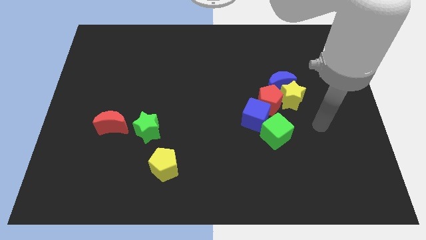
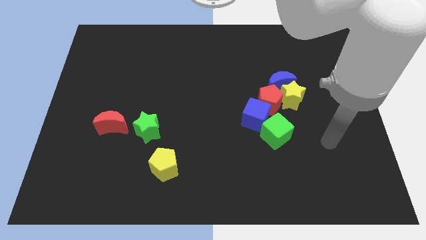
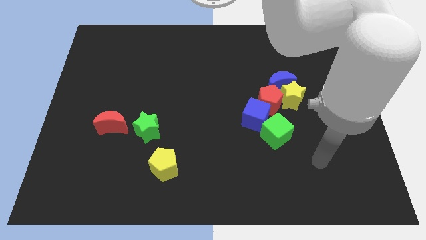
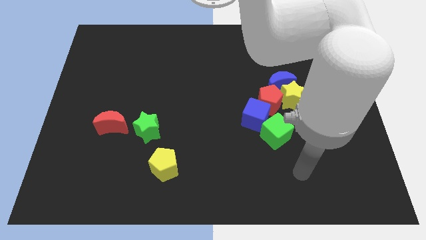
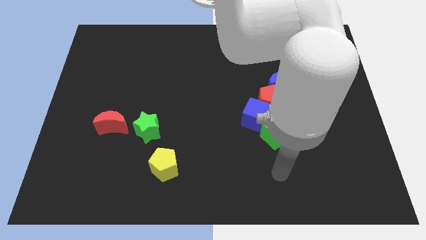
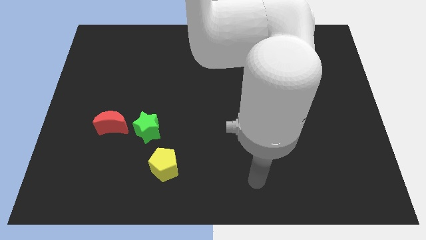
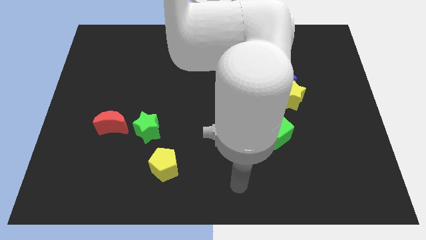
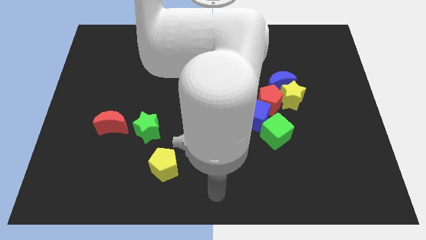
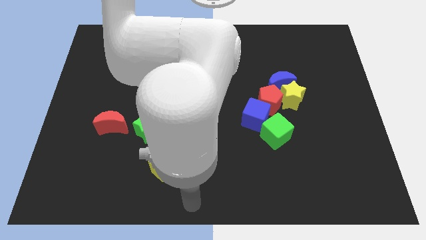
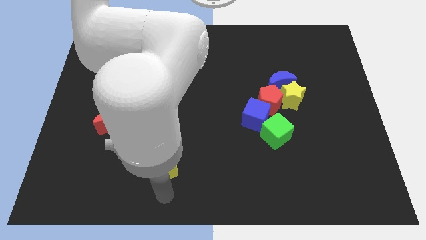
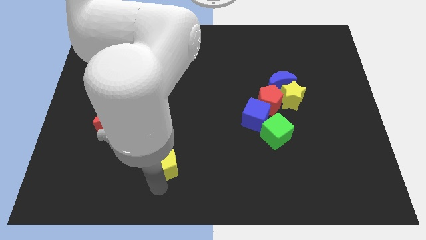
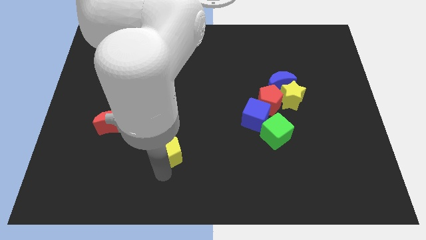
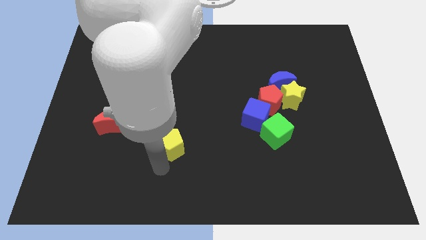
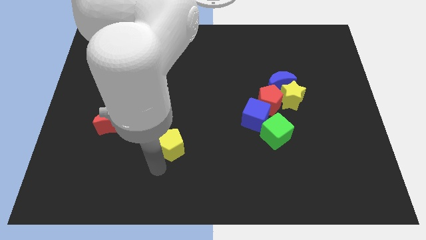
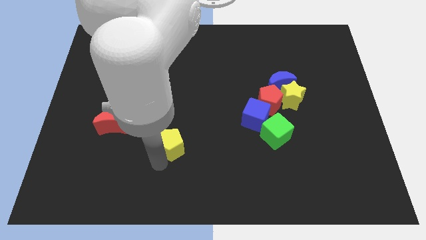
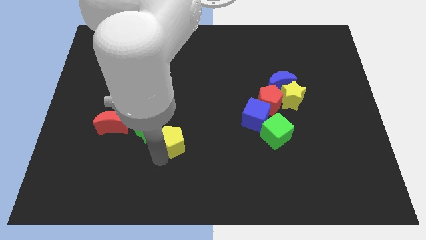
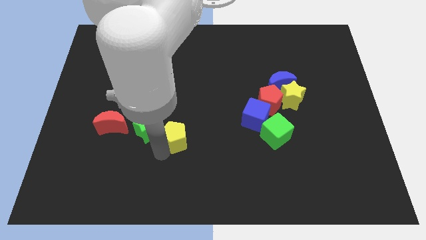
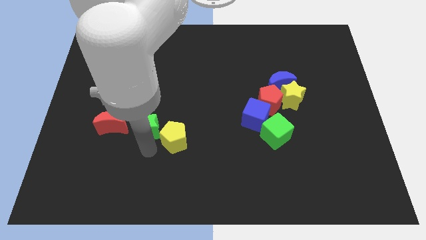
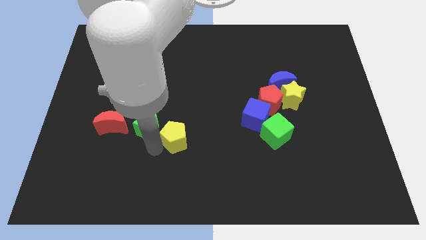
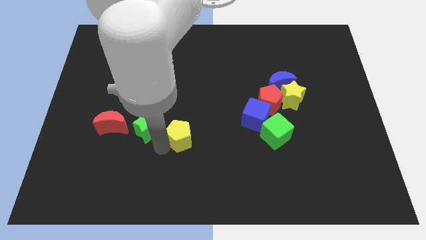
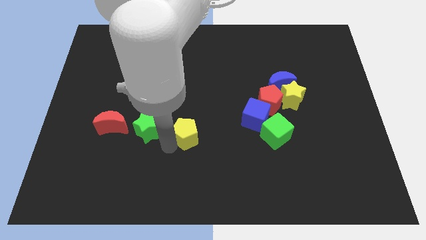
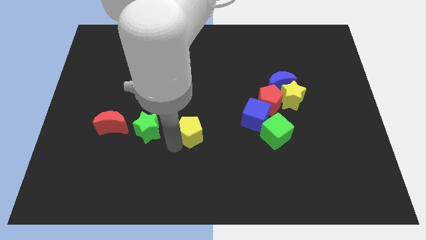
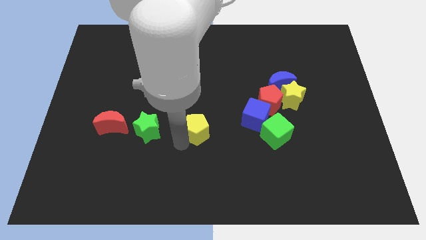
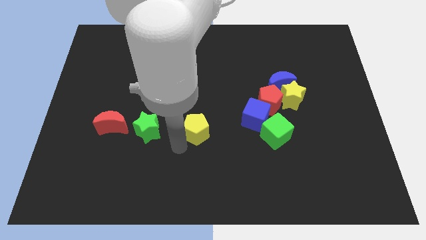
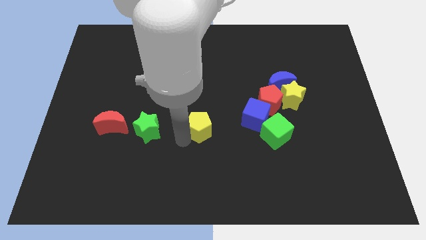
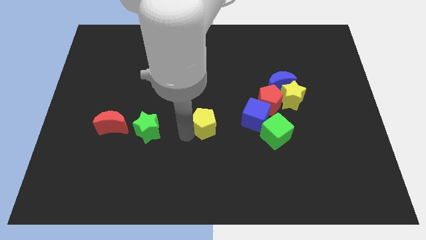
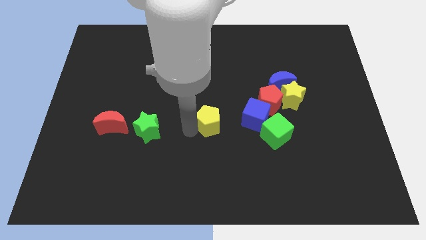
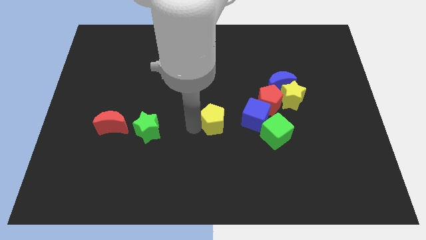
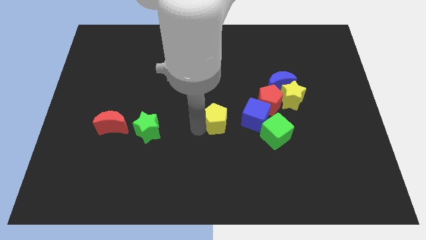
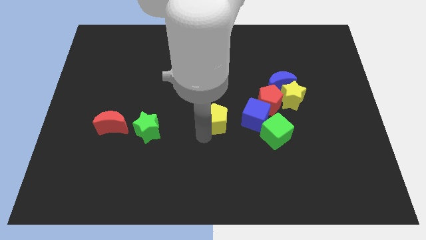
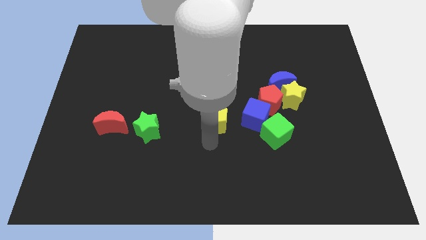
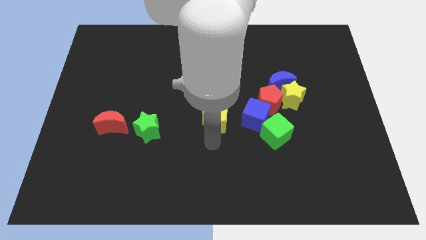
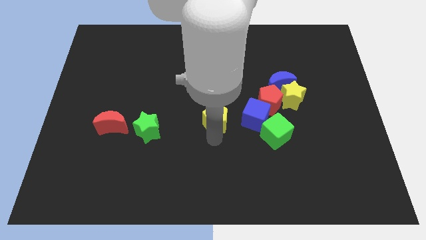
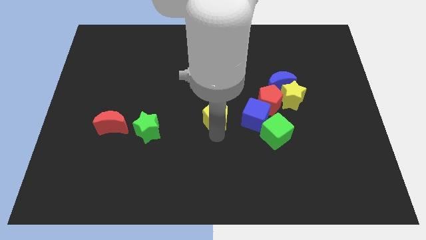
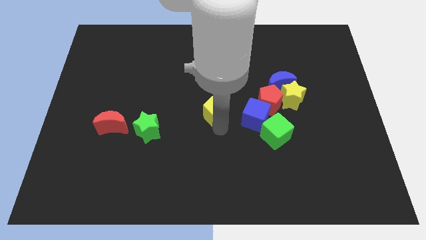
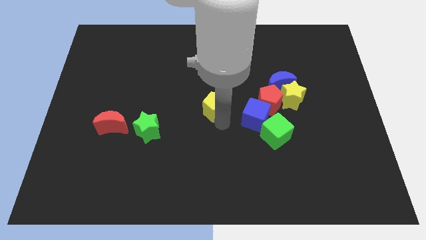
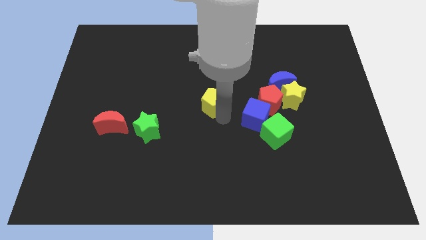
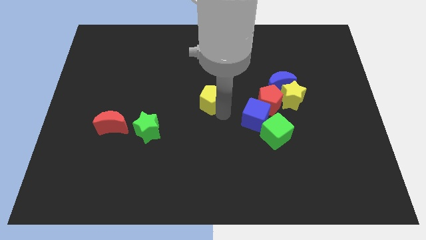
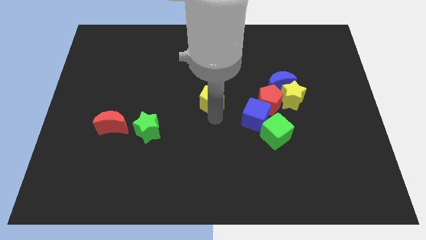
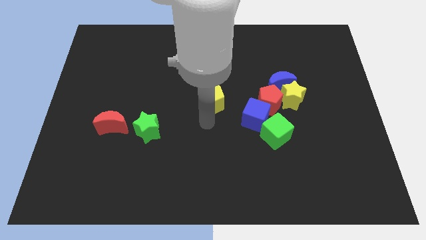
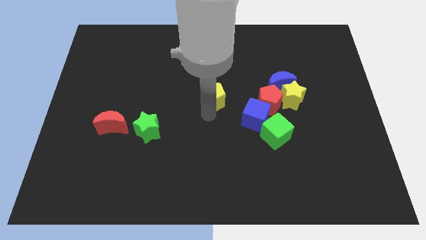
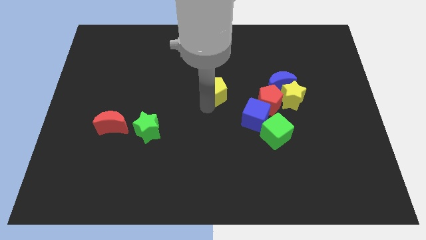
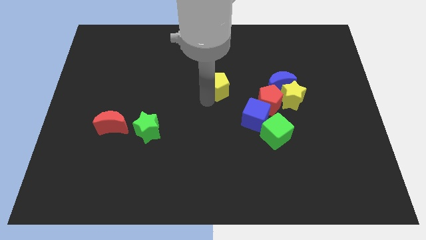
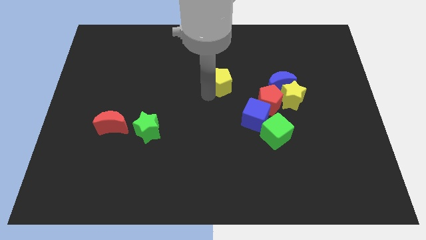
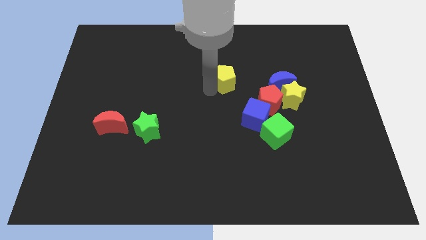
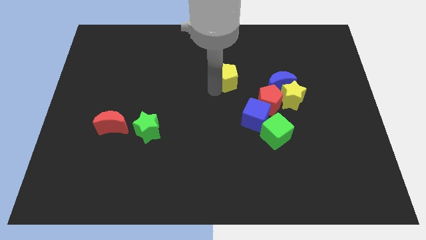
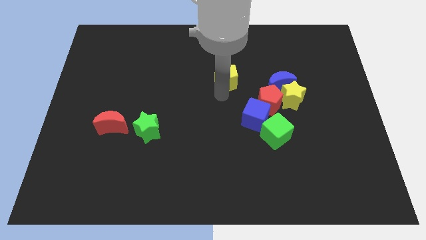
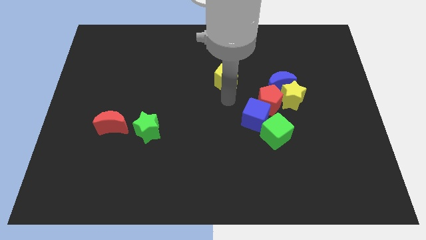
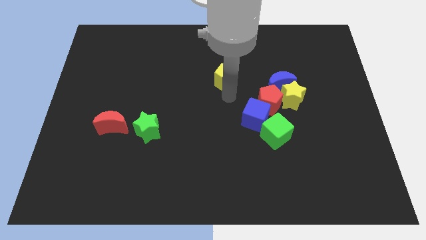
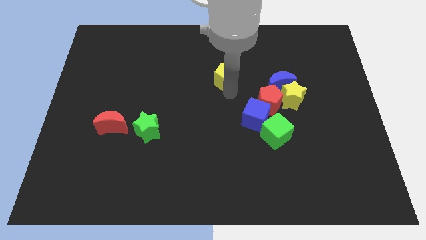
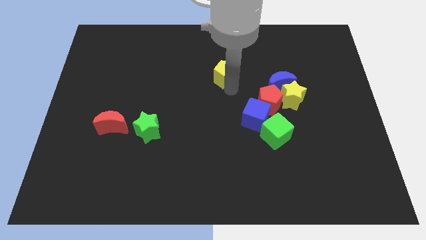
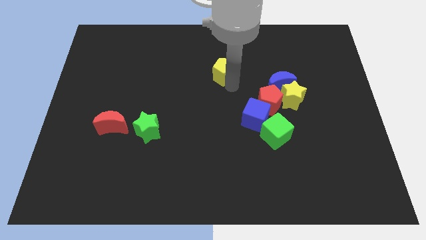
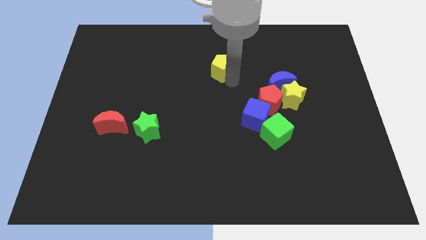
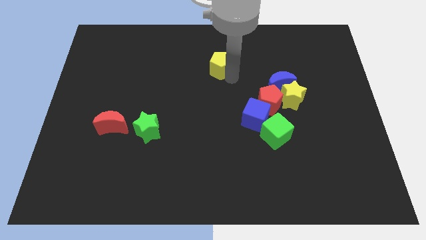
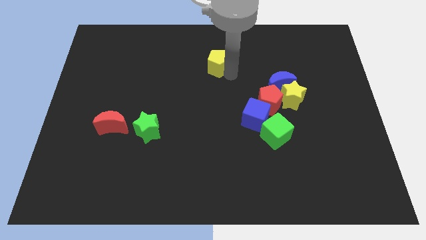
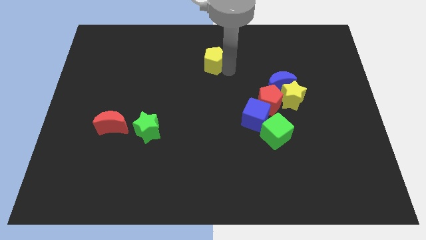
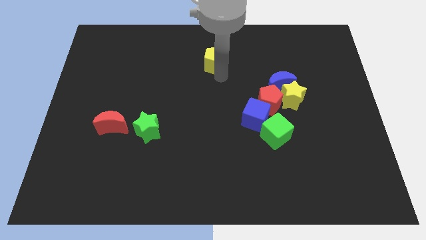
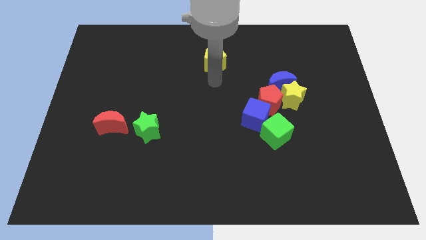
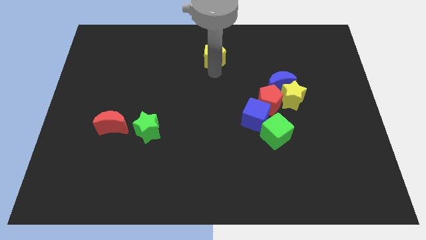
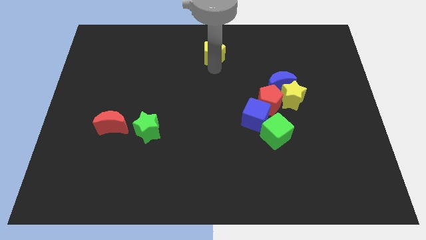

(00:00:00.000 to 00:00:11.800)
put the yellow pentagon to the top side

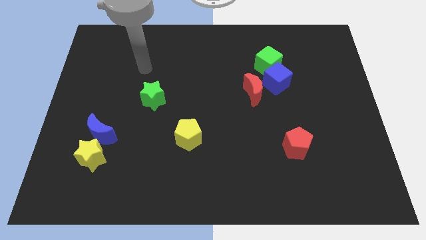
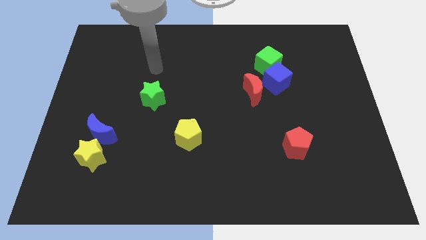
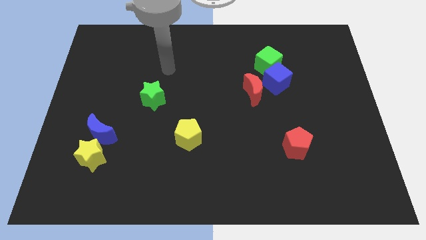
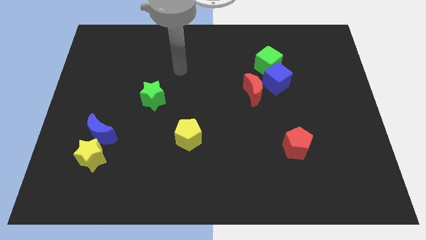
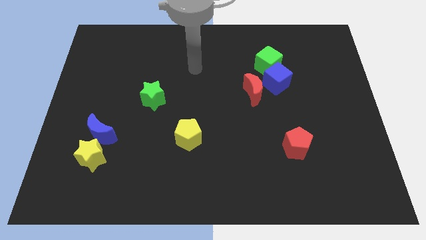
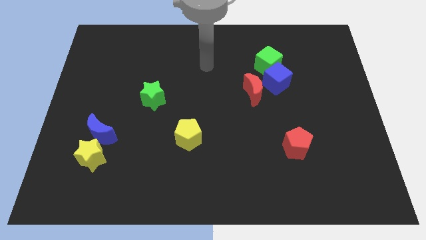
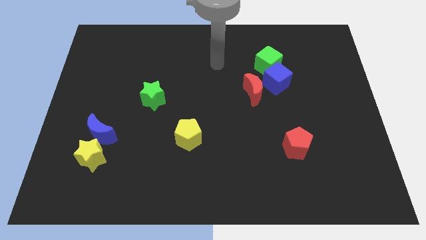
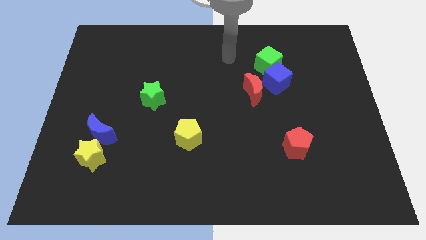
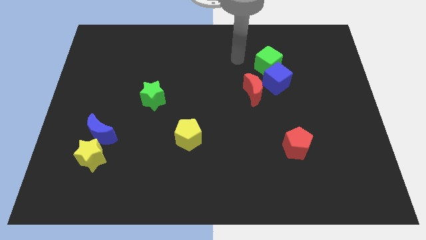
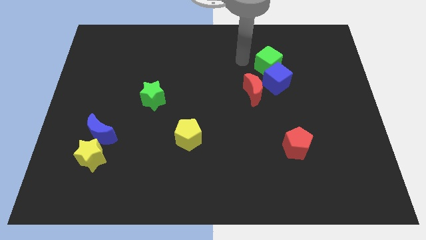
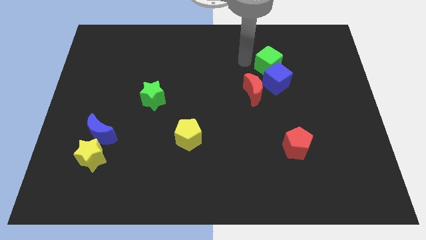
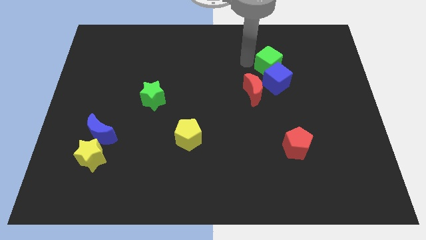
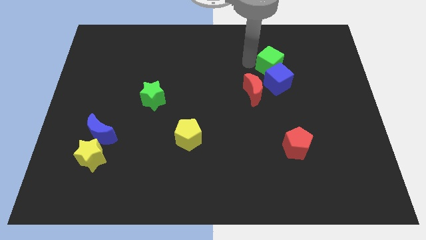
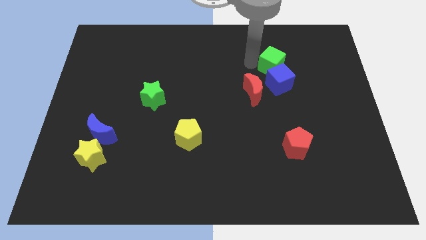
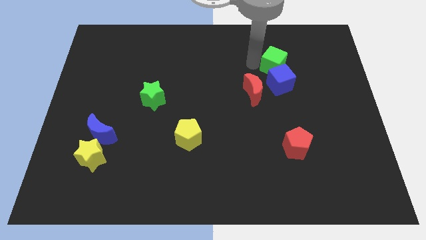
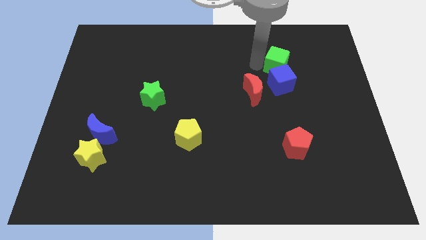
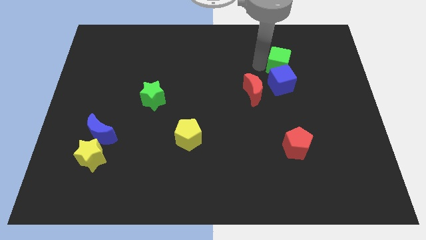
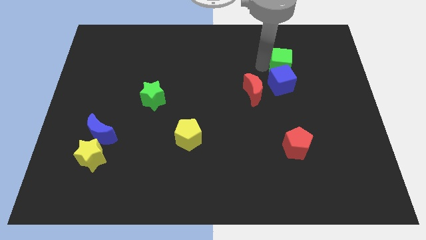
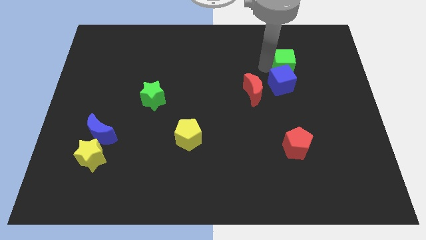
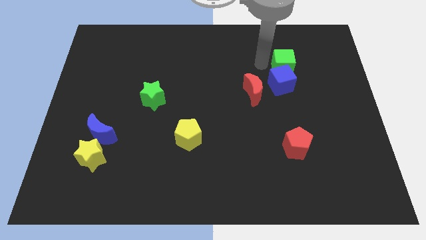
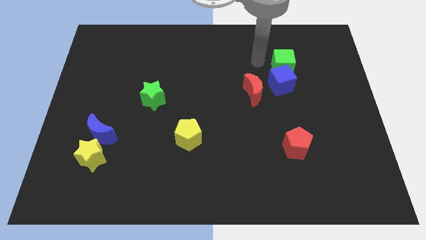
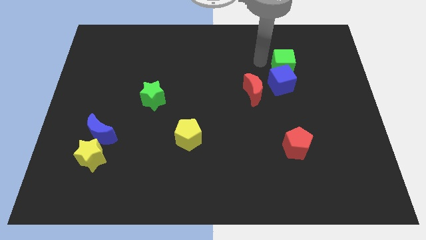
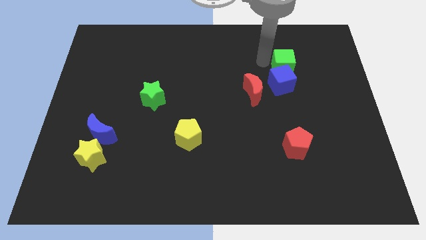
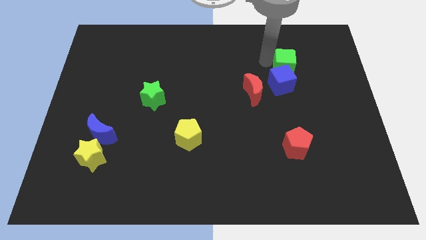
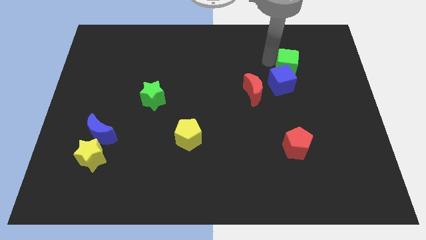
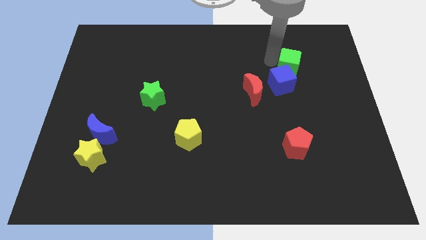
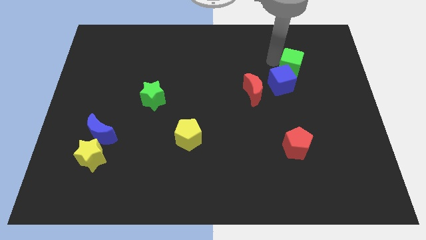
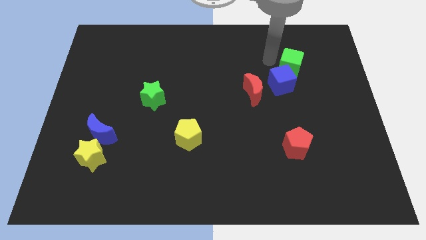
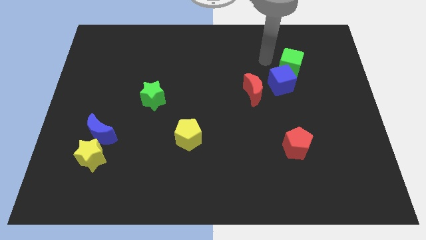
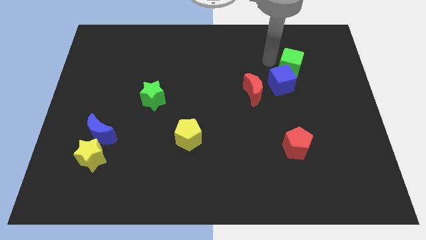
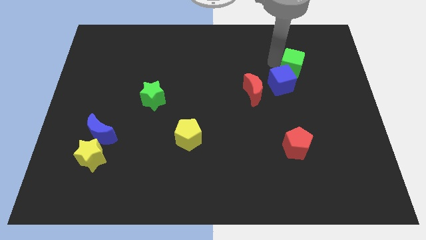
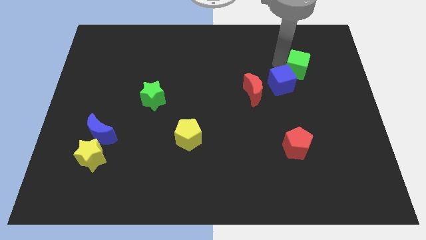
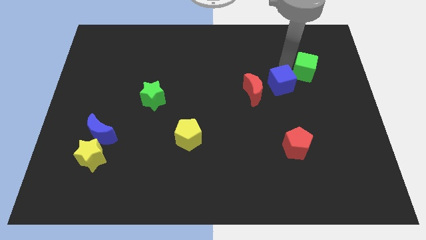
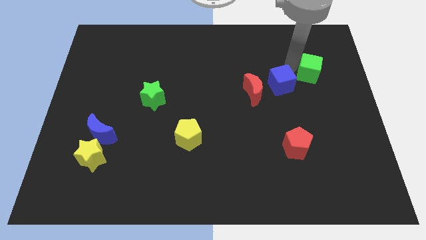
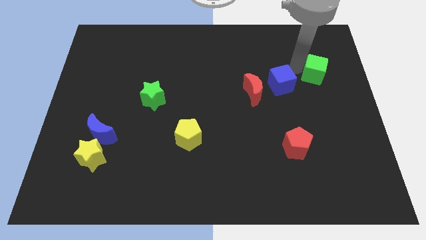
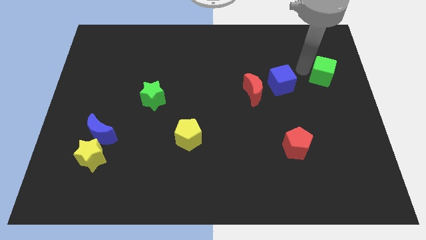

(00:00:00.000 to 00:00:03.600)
put the green cube to the right side of the board
